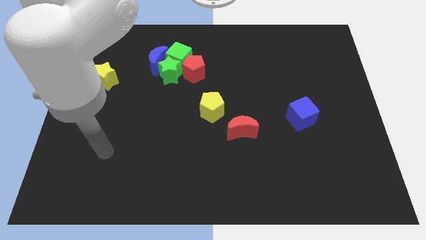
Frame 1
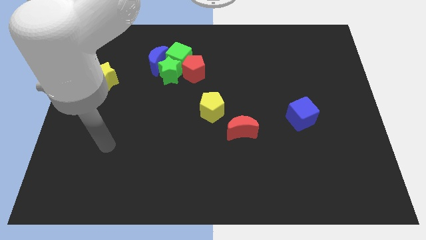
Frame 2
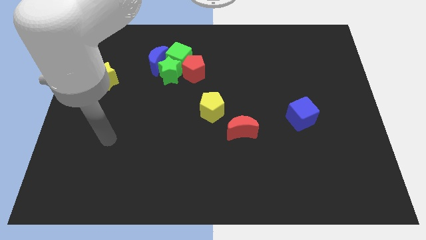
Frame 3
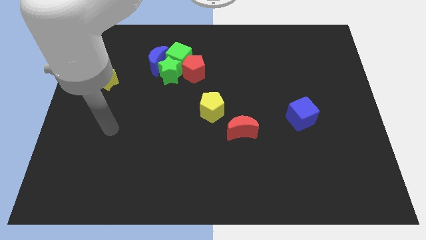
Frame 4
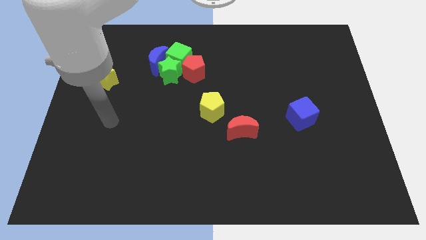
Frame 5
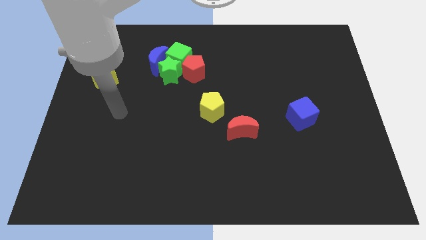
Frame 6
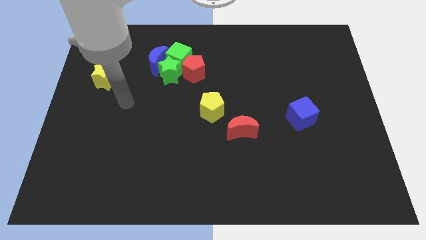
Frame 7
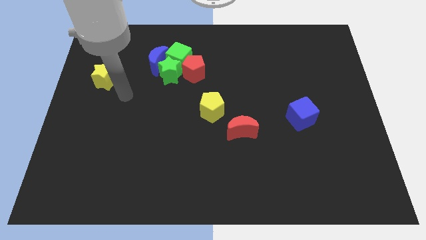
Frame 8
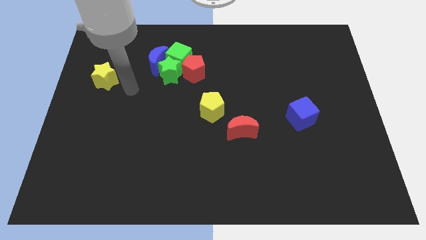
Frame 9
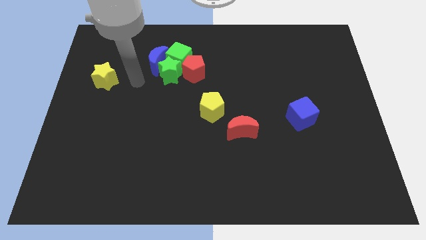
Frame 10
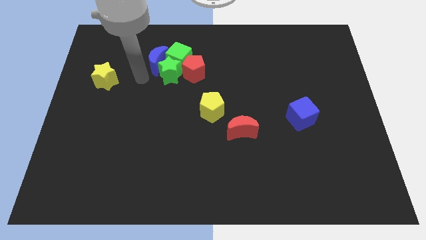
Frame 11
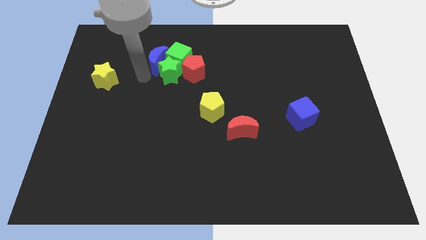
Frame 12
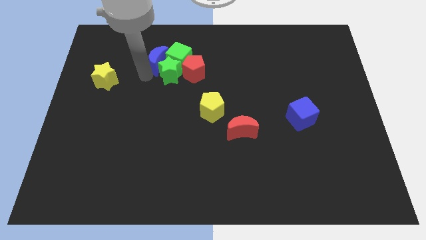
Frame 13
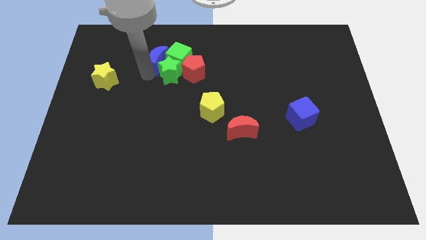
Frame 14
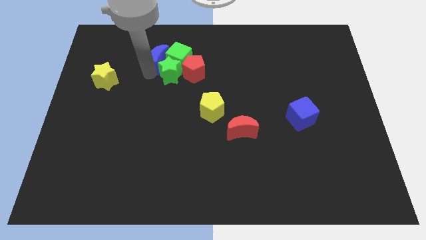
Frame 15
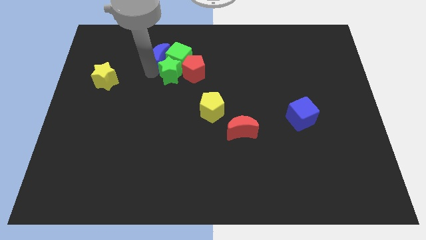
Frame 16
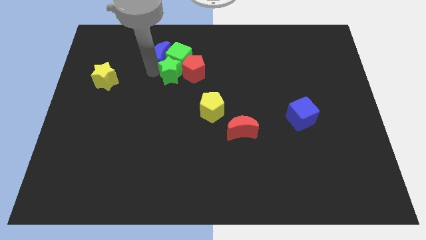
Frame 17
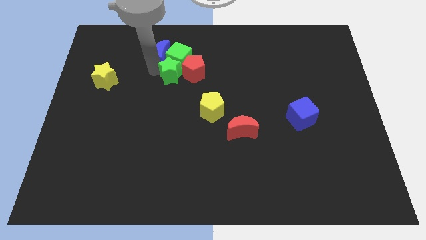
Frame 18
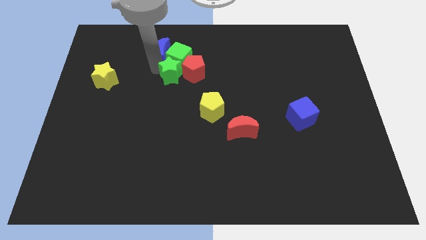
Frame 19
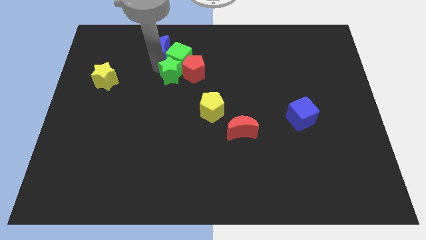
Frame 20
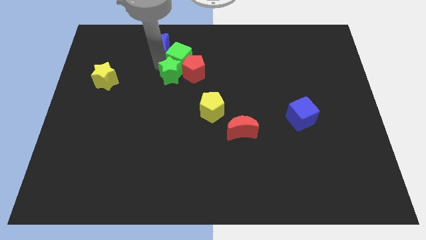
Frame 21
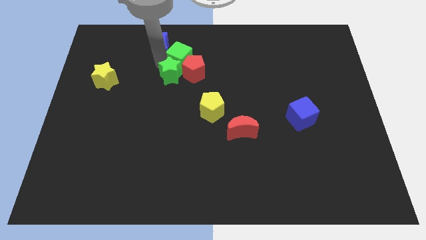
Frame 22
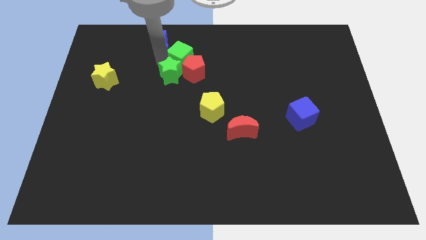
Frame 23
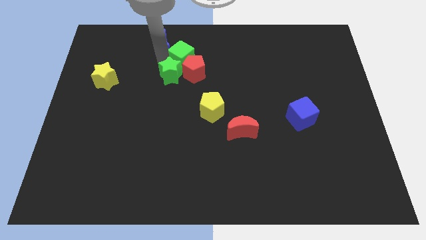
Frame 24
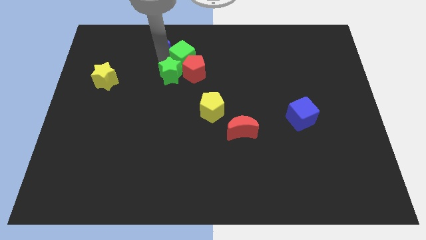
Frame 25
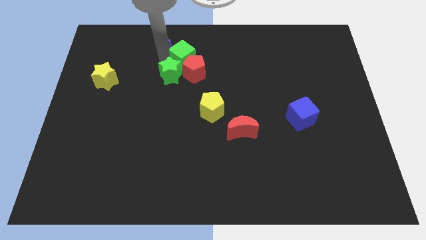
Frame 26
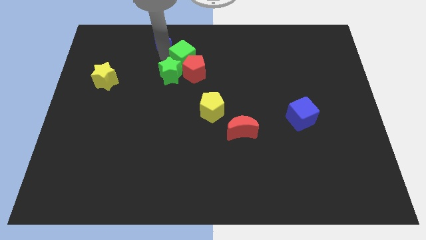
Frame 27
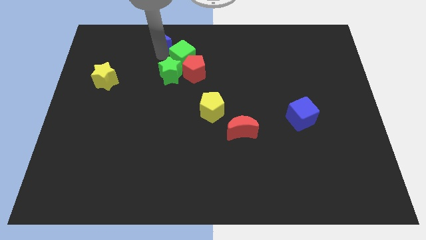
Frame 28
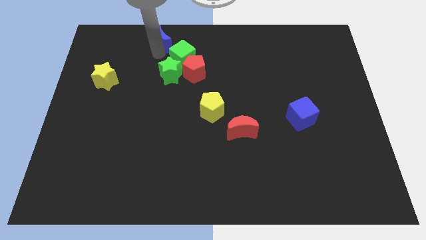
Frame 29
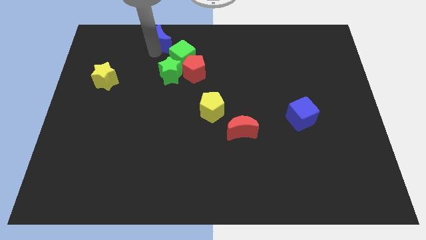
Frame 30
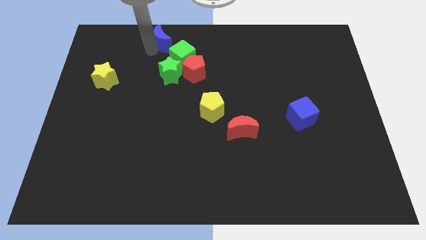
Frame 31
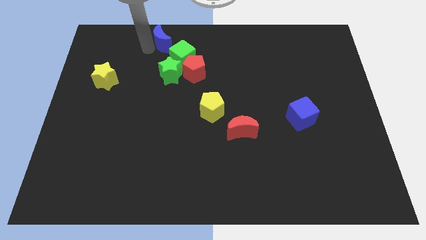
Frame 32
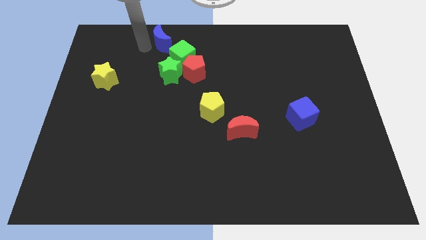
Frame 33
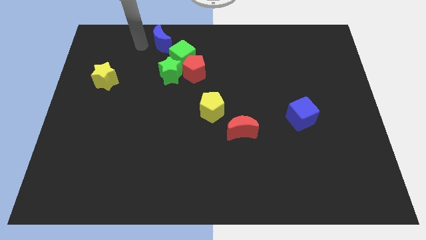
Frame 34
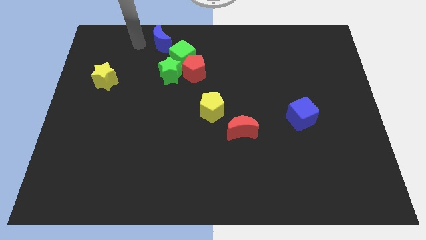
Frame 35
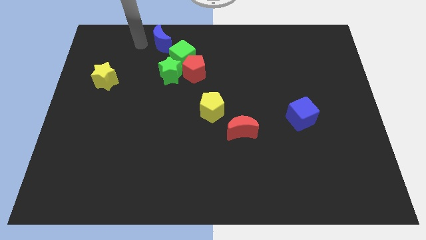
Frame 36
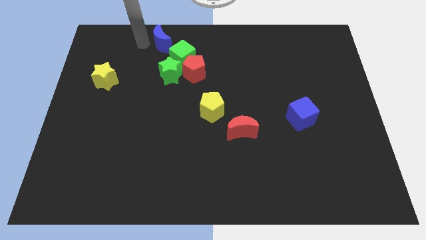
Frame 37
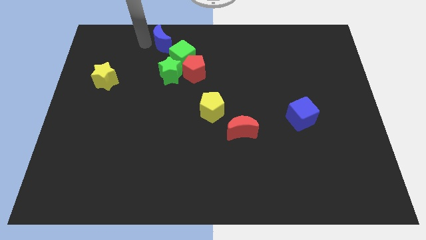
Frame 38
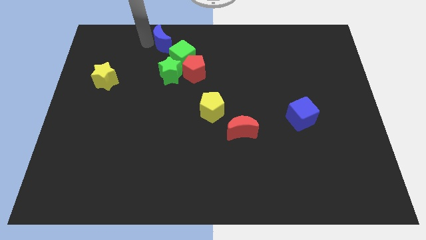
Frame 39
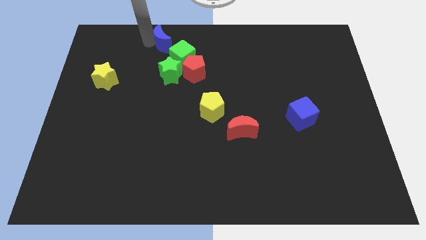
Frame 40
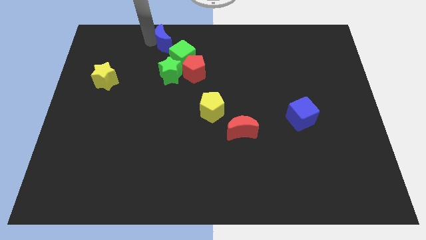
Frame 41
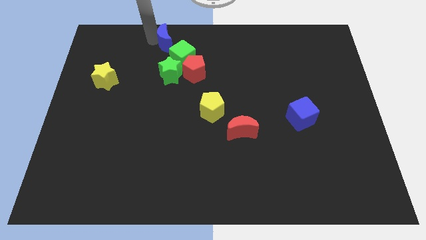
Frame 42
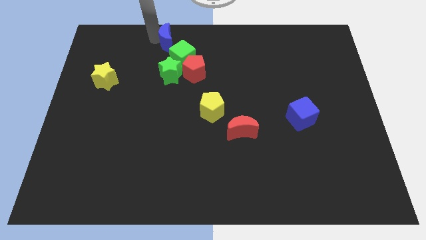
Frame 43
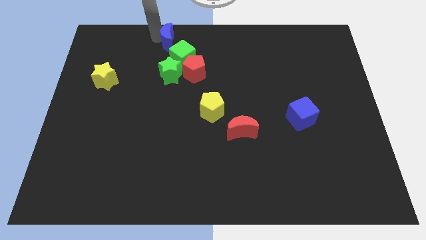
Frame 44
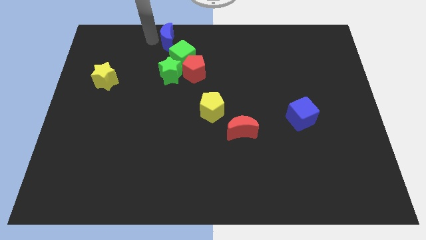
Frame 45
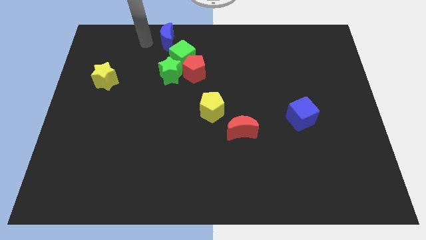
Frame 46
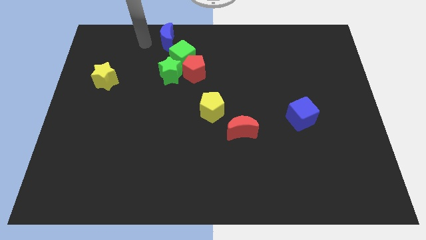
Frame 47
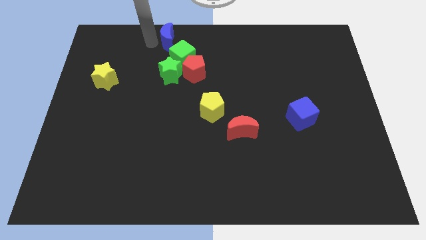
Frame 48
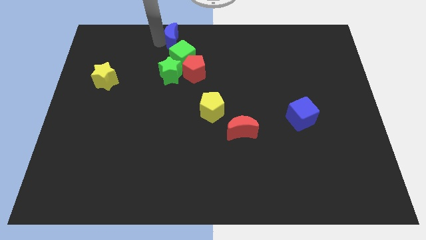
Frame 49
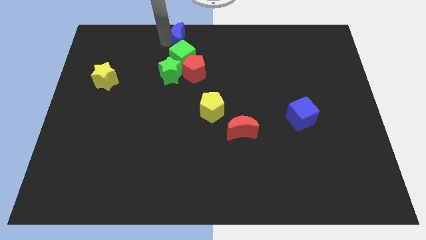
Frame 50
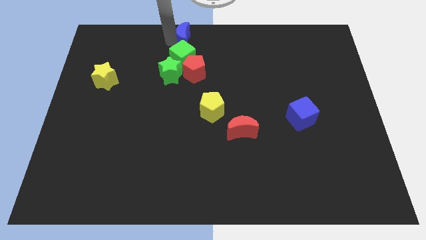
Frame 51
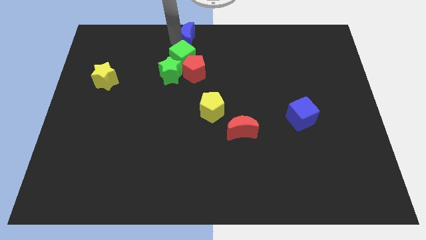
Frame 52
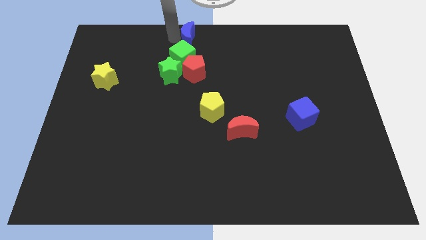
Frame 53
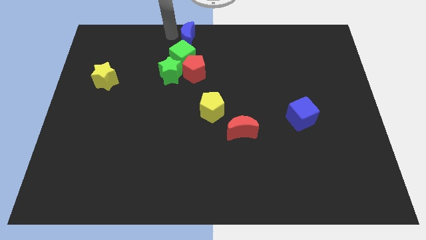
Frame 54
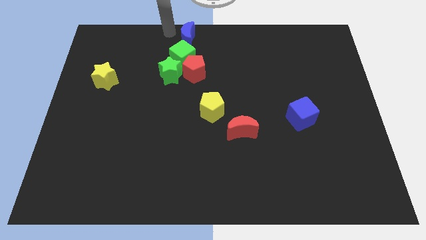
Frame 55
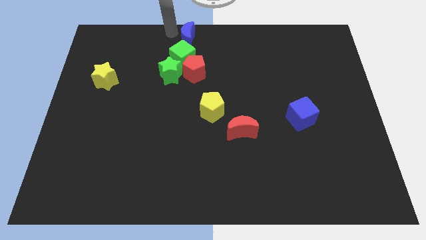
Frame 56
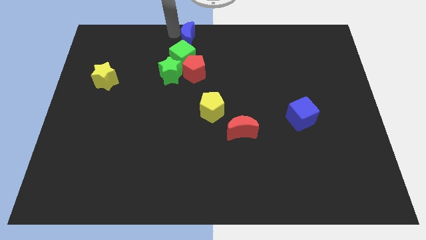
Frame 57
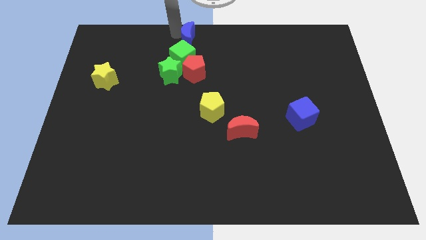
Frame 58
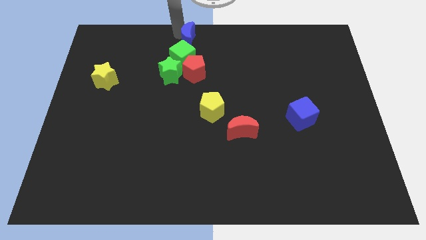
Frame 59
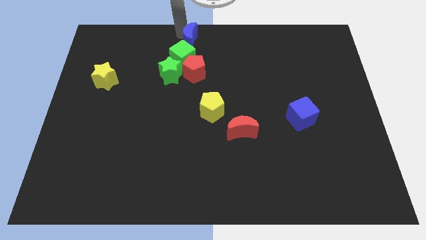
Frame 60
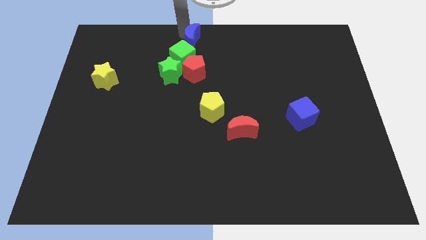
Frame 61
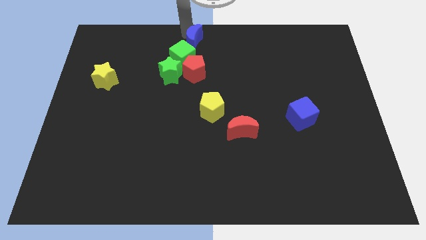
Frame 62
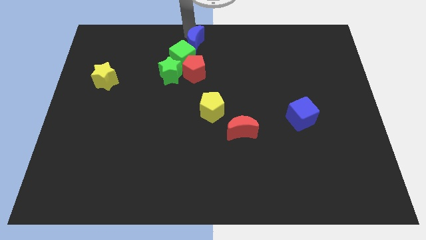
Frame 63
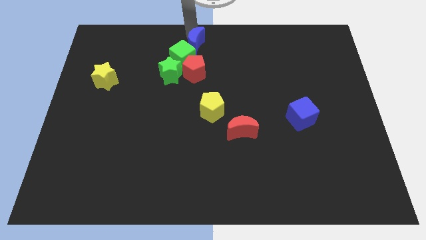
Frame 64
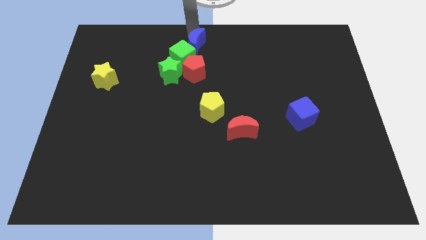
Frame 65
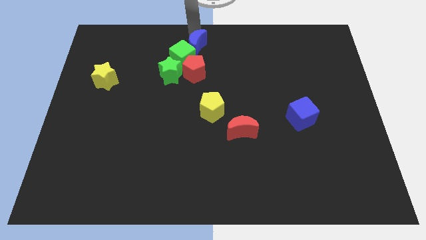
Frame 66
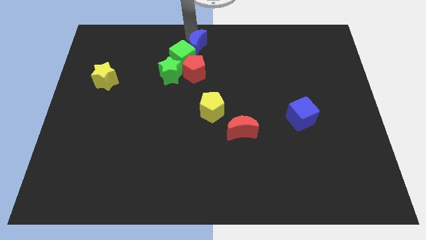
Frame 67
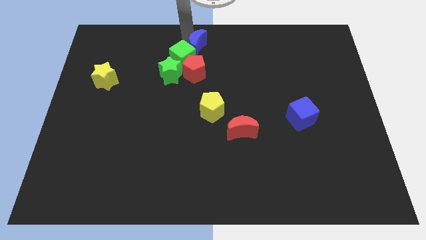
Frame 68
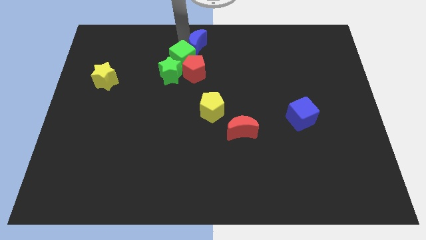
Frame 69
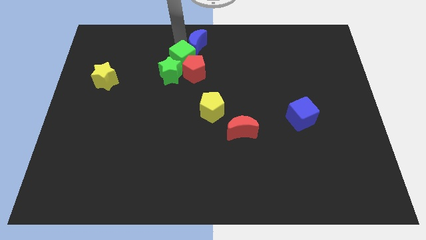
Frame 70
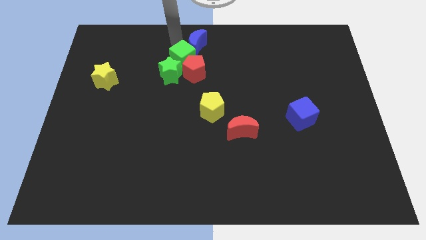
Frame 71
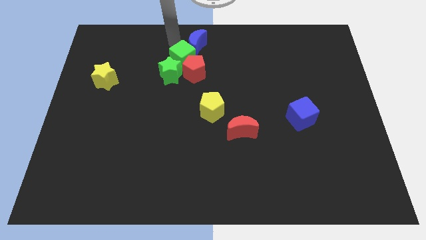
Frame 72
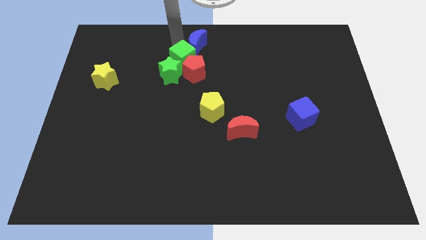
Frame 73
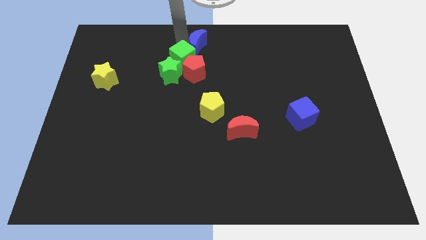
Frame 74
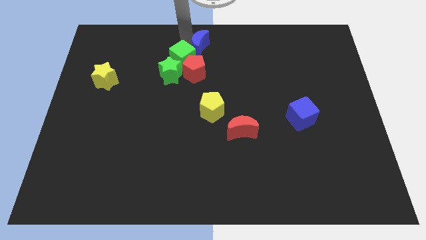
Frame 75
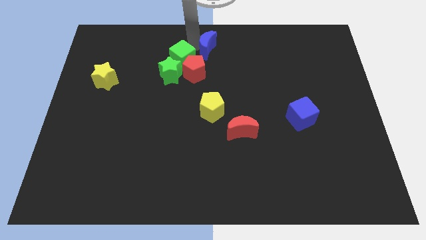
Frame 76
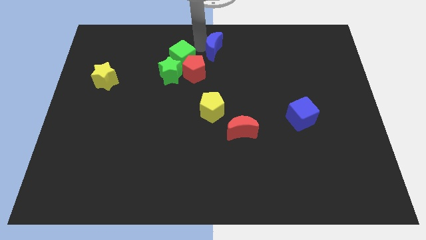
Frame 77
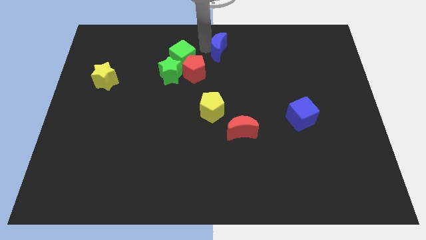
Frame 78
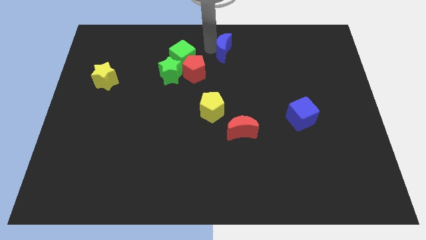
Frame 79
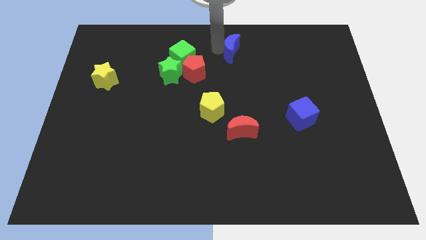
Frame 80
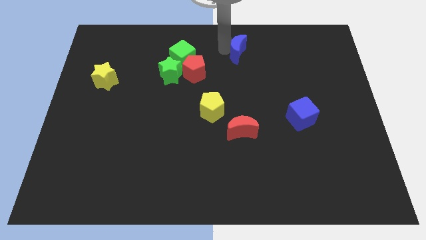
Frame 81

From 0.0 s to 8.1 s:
slide the blue moon to the right
